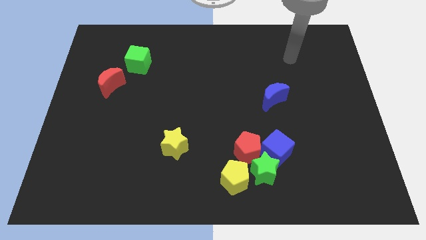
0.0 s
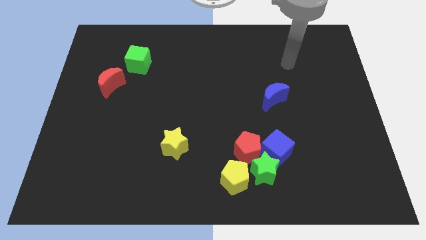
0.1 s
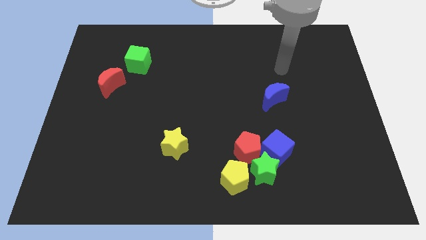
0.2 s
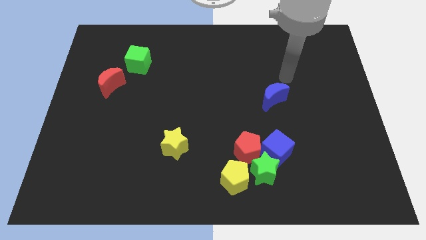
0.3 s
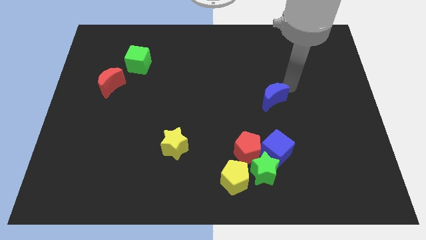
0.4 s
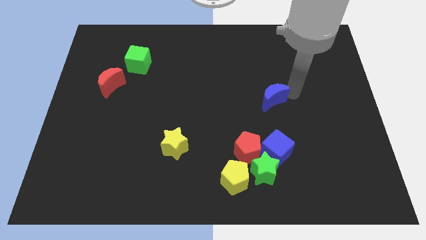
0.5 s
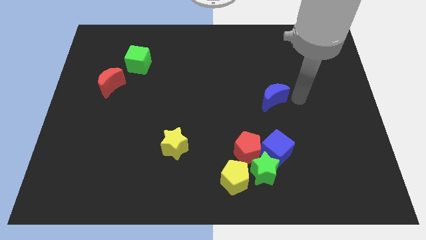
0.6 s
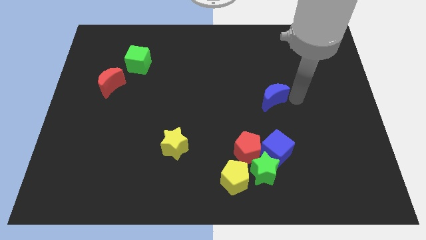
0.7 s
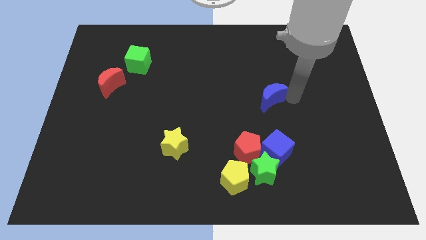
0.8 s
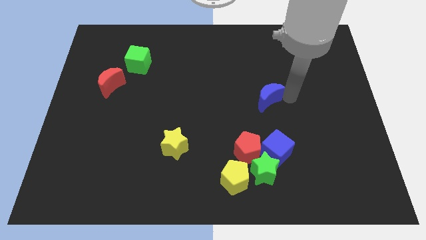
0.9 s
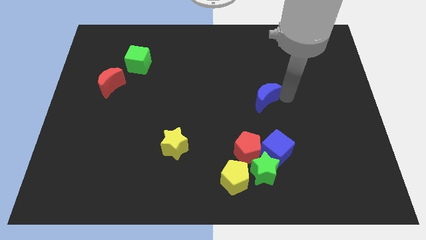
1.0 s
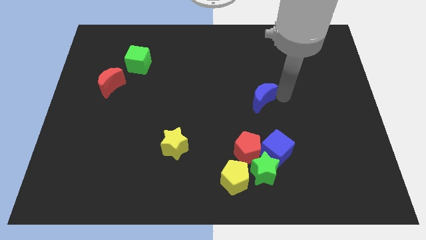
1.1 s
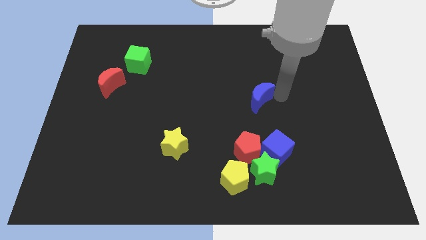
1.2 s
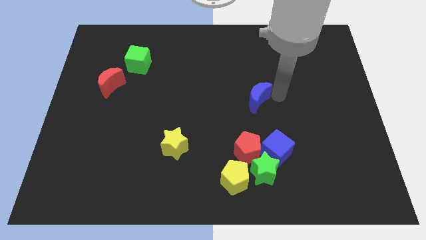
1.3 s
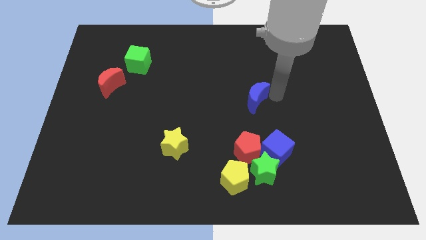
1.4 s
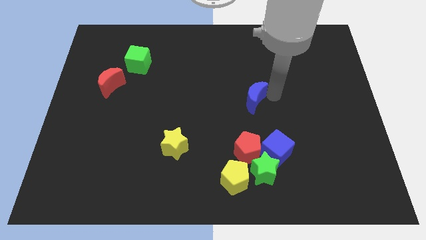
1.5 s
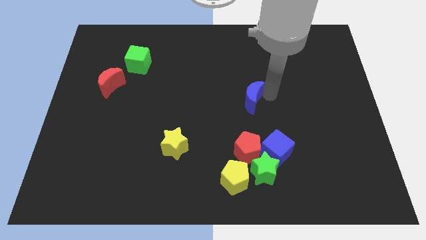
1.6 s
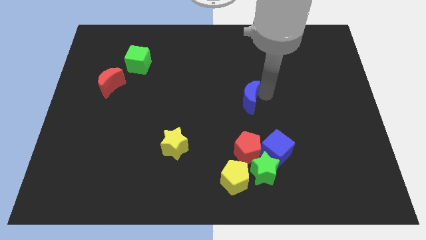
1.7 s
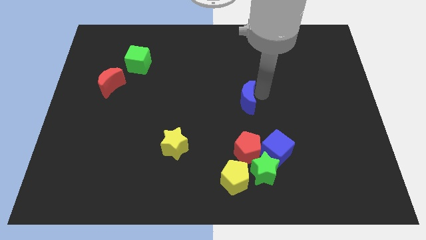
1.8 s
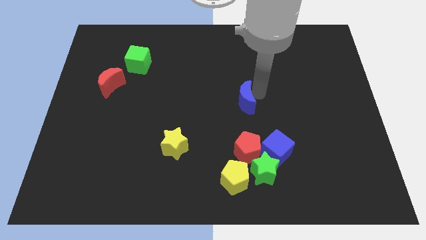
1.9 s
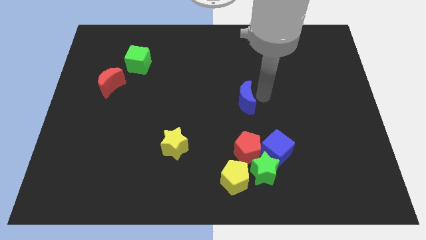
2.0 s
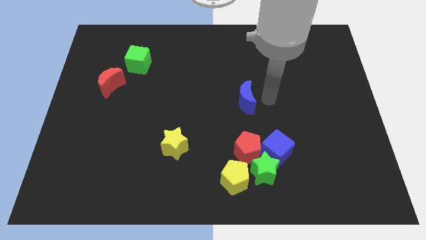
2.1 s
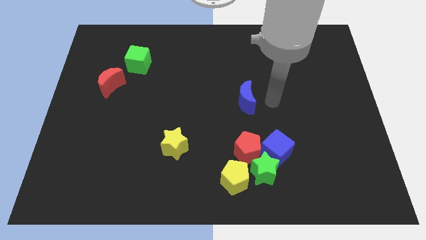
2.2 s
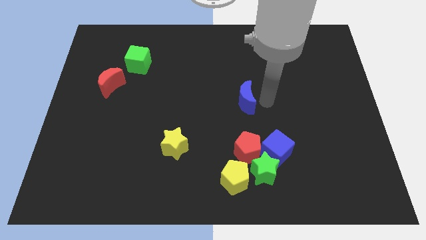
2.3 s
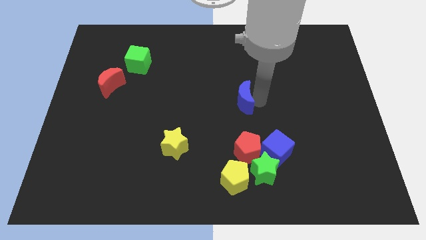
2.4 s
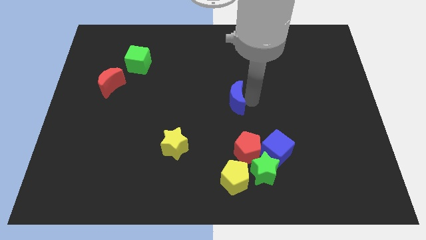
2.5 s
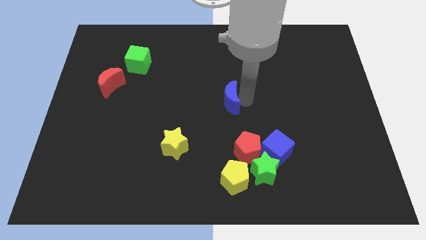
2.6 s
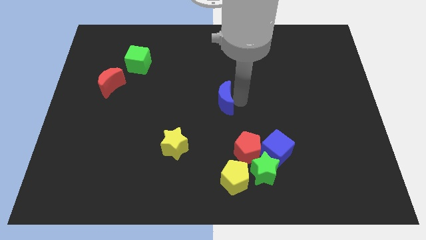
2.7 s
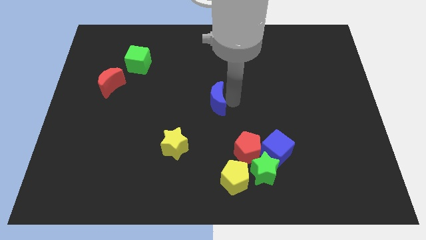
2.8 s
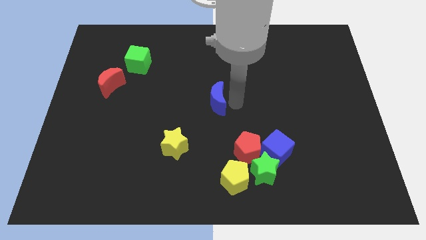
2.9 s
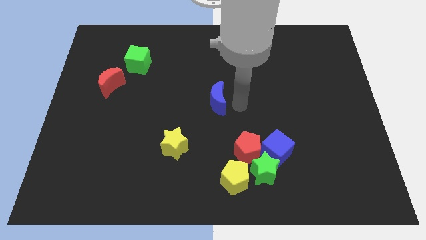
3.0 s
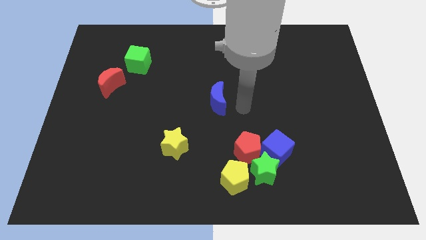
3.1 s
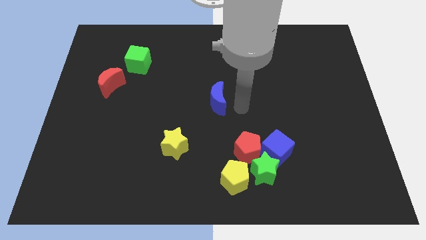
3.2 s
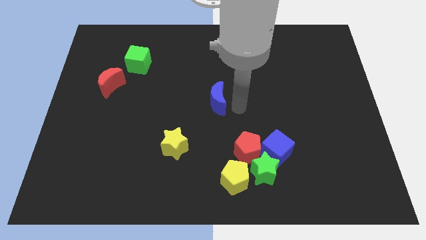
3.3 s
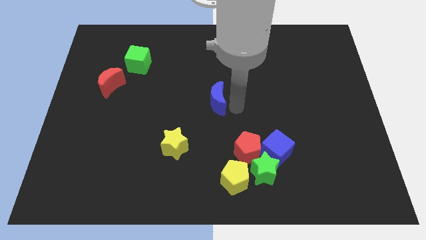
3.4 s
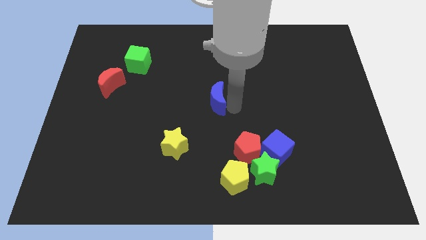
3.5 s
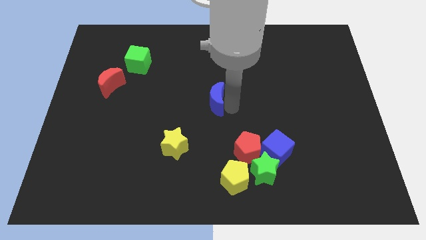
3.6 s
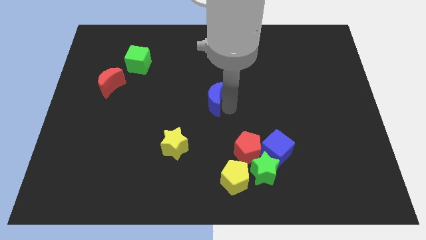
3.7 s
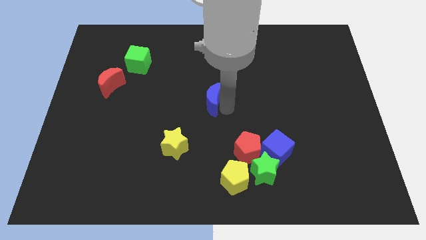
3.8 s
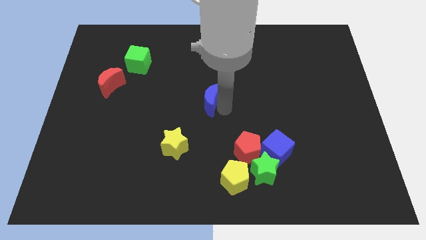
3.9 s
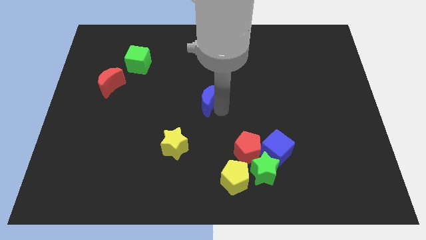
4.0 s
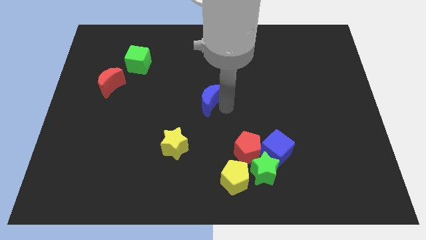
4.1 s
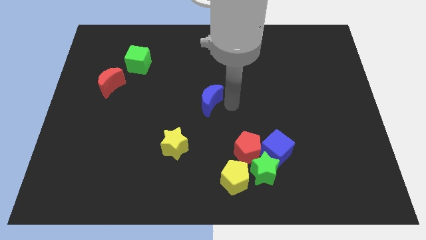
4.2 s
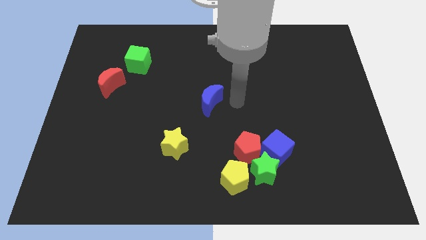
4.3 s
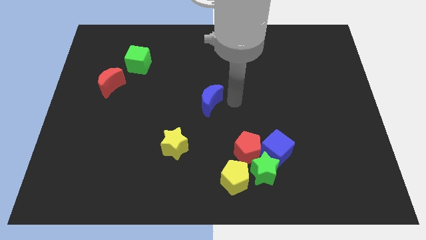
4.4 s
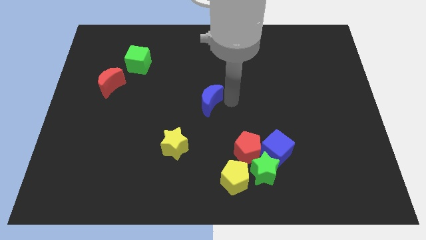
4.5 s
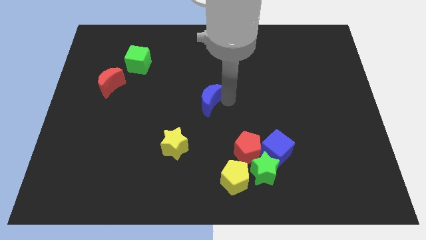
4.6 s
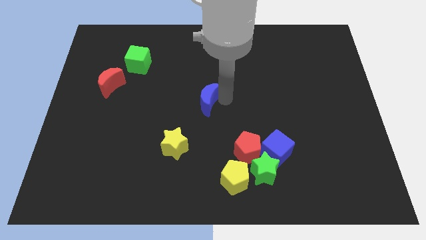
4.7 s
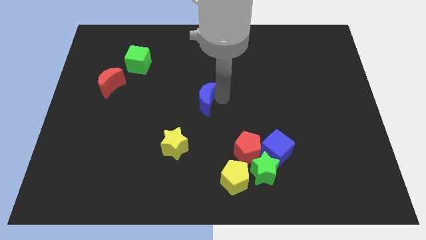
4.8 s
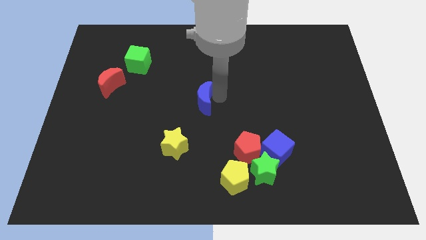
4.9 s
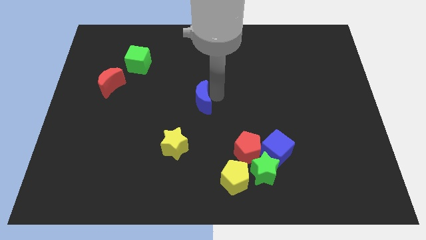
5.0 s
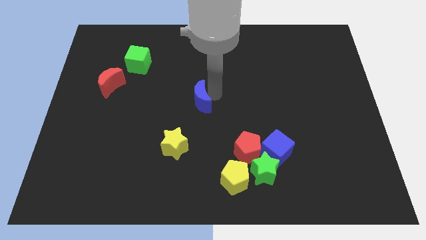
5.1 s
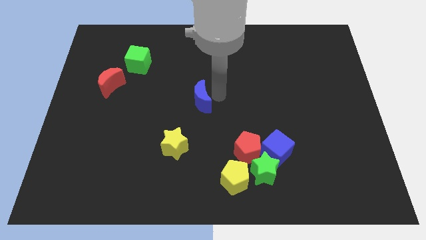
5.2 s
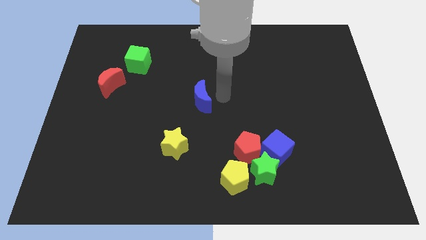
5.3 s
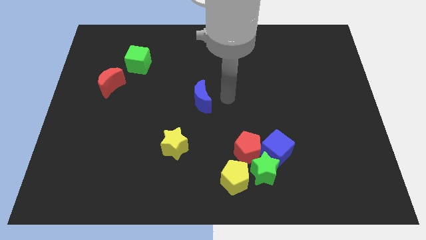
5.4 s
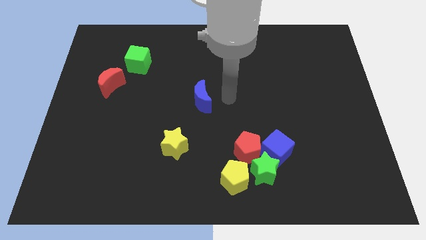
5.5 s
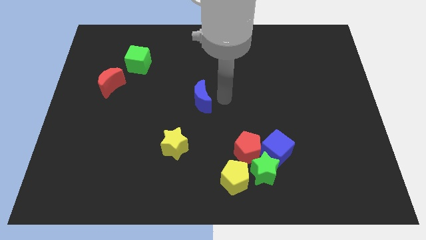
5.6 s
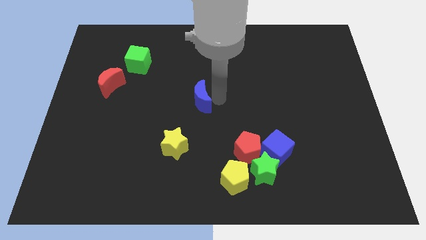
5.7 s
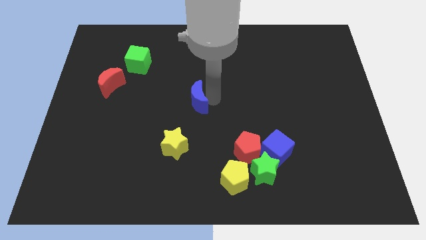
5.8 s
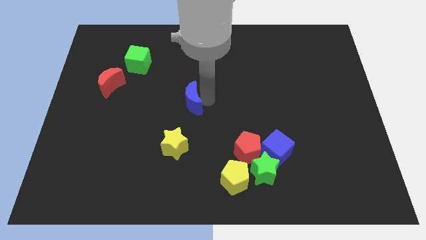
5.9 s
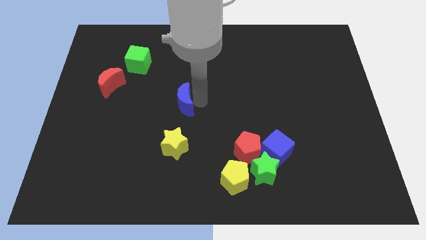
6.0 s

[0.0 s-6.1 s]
slide the blue moon to the left

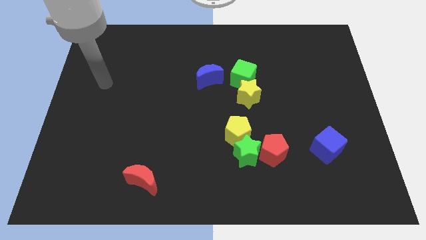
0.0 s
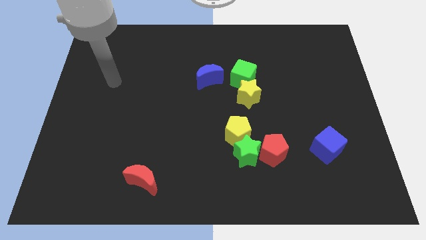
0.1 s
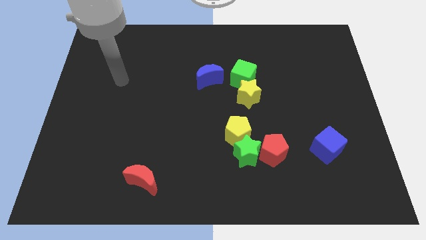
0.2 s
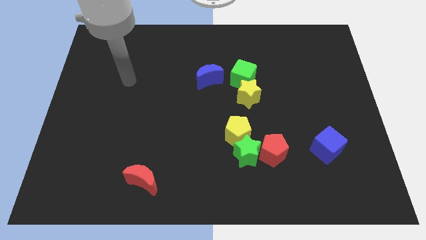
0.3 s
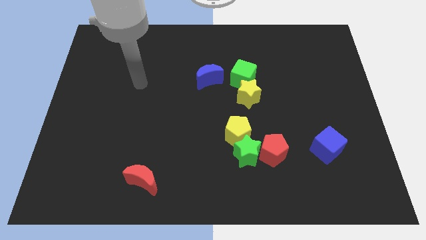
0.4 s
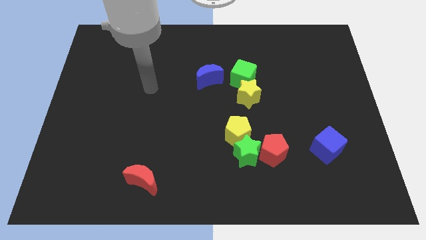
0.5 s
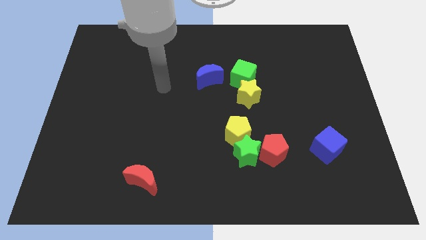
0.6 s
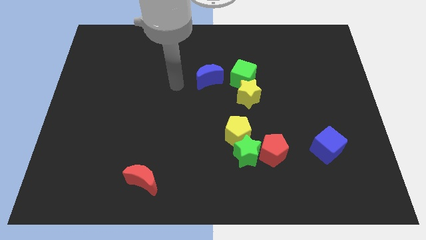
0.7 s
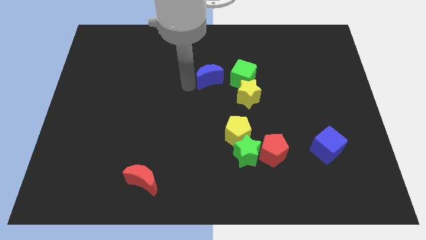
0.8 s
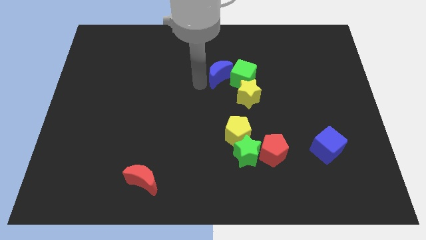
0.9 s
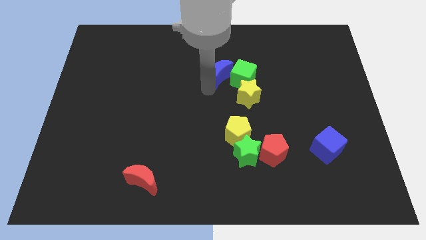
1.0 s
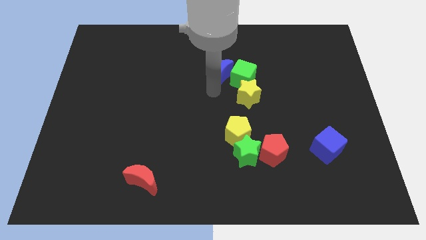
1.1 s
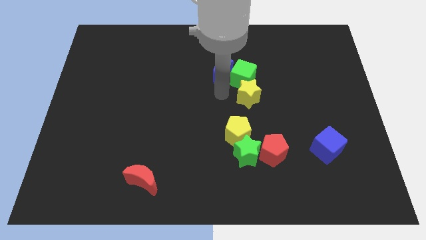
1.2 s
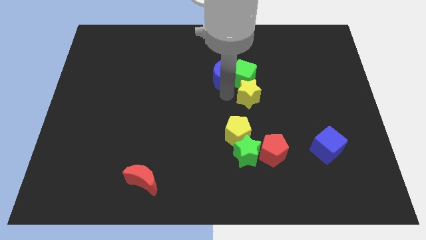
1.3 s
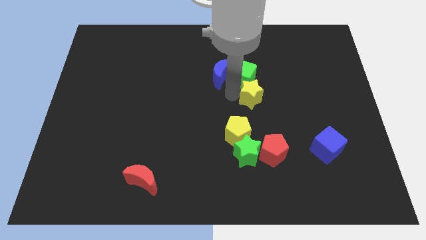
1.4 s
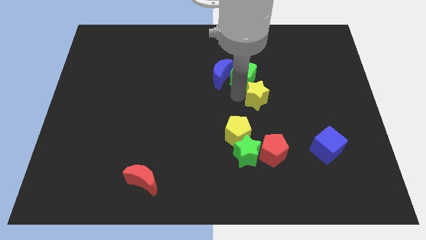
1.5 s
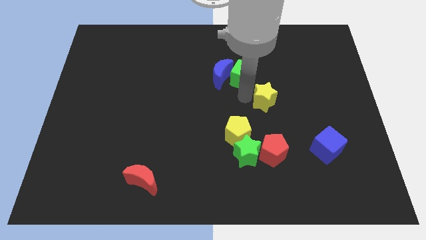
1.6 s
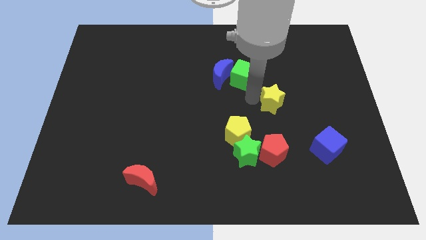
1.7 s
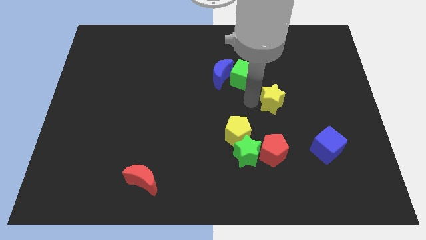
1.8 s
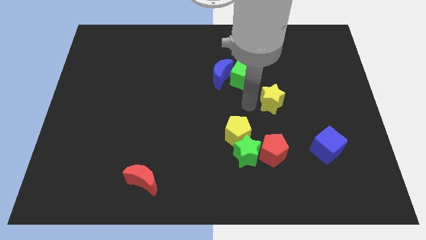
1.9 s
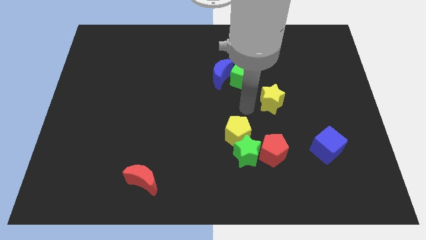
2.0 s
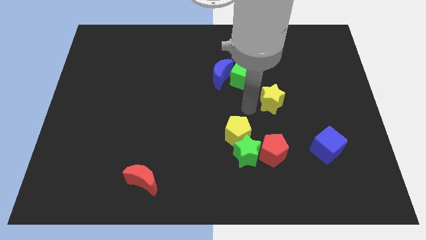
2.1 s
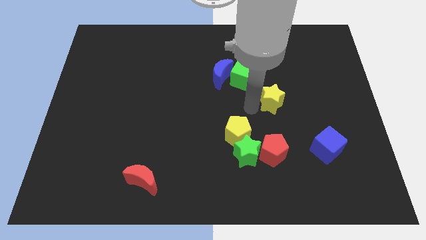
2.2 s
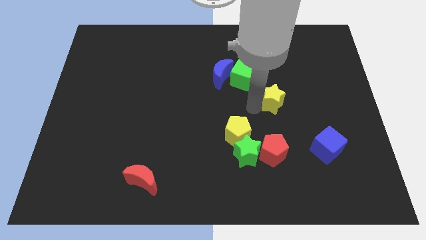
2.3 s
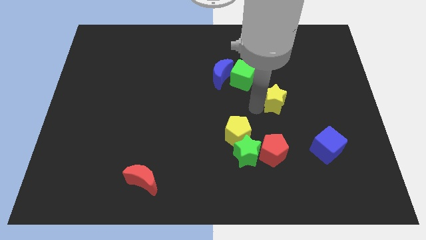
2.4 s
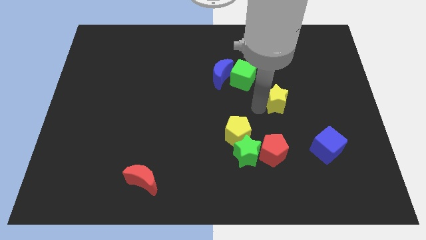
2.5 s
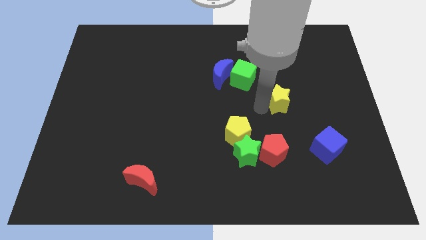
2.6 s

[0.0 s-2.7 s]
push the yellow star right a bit
